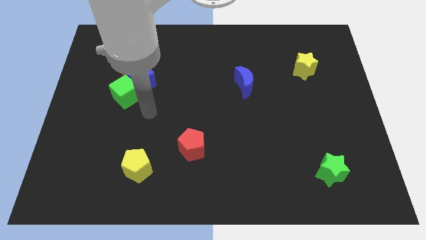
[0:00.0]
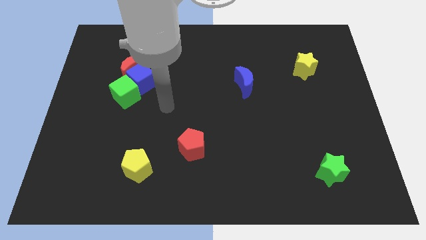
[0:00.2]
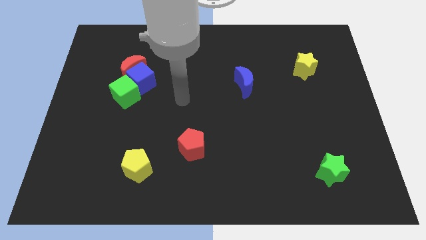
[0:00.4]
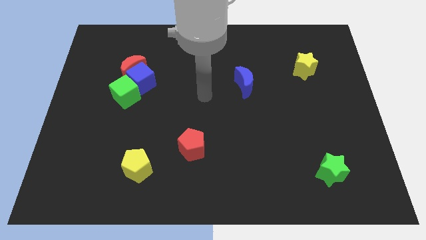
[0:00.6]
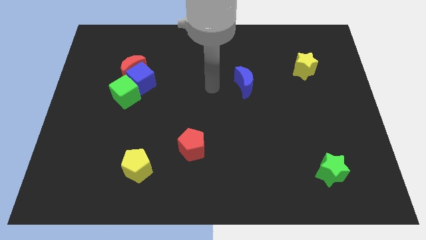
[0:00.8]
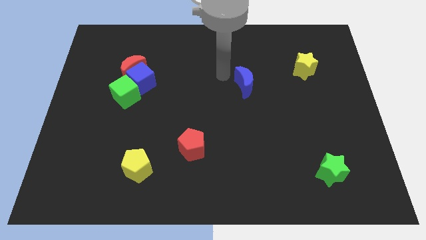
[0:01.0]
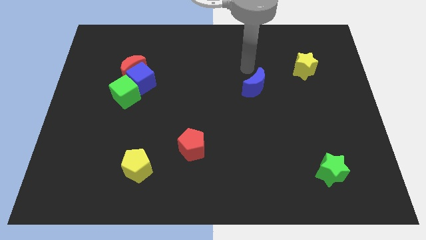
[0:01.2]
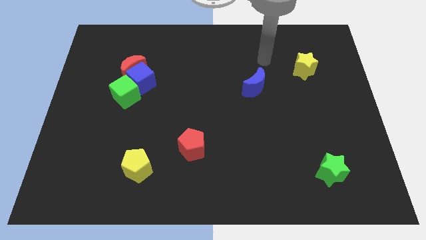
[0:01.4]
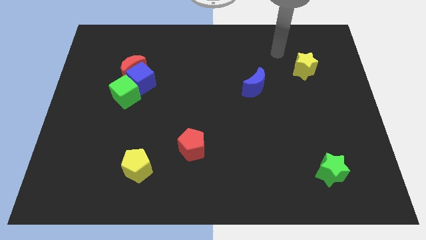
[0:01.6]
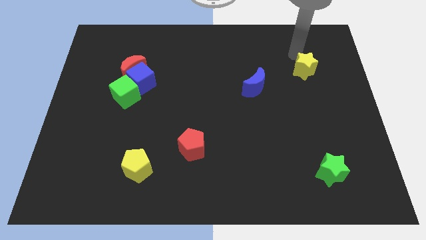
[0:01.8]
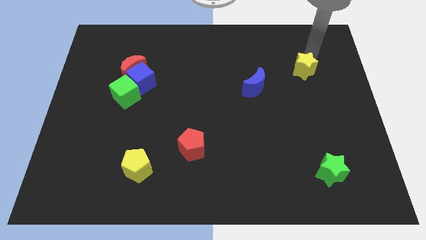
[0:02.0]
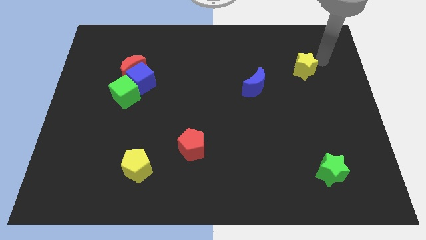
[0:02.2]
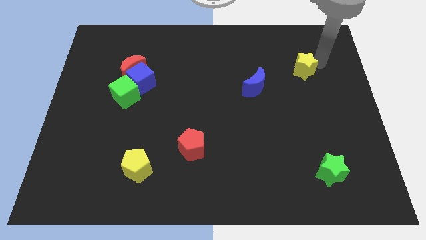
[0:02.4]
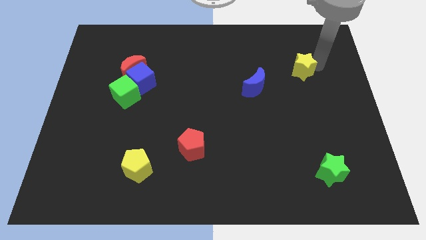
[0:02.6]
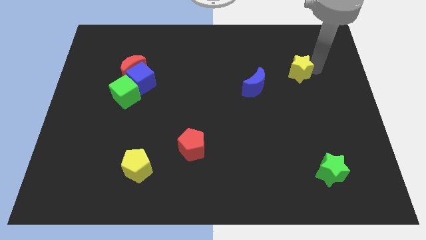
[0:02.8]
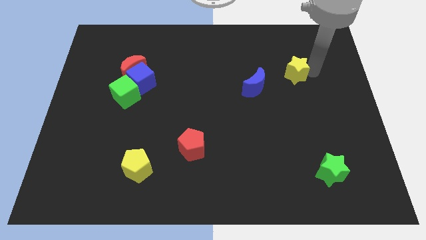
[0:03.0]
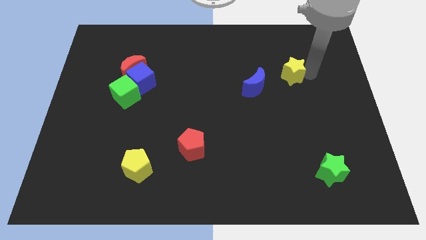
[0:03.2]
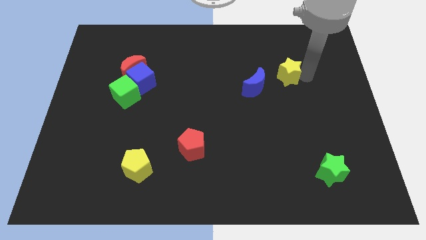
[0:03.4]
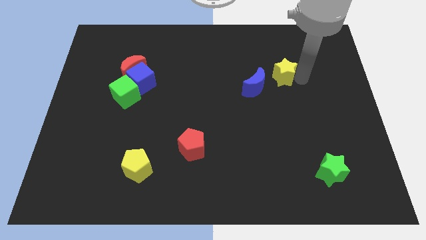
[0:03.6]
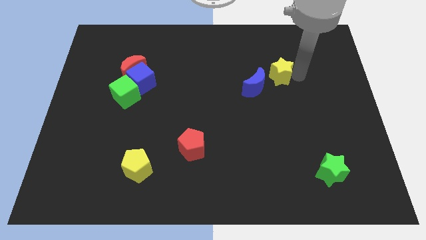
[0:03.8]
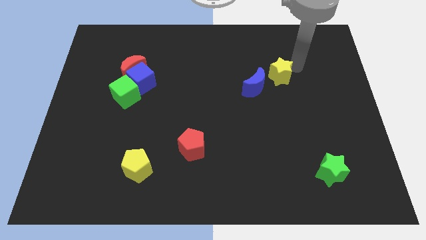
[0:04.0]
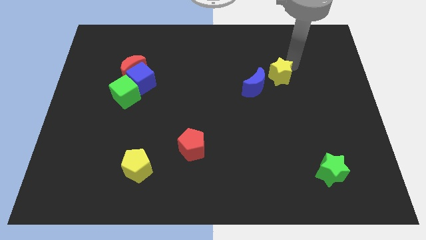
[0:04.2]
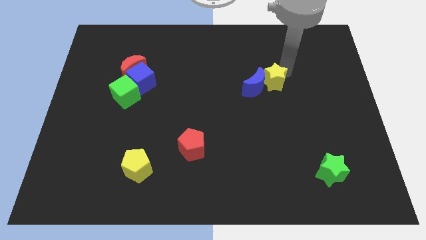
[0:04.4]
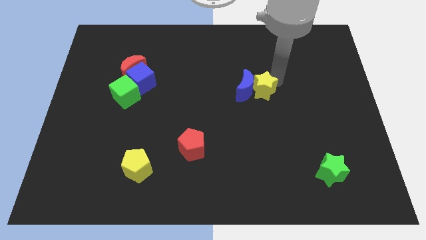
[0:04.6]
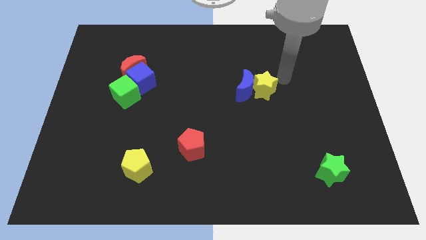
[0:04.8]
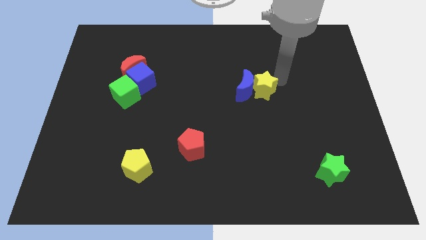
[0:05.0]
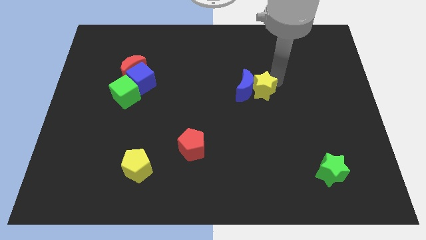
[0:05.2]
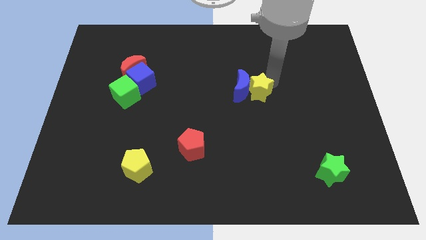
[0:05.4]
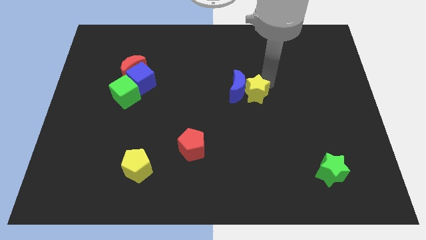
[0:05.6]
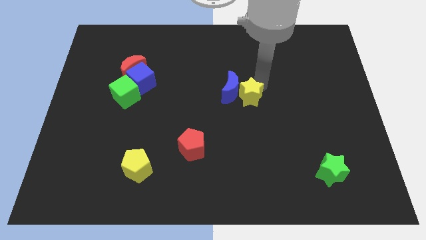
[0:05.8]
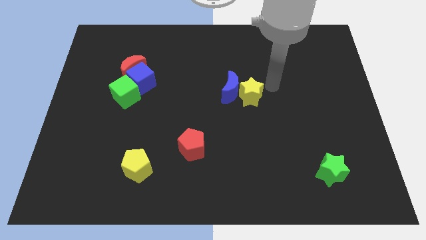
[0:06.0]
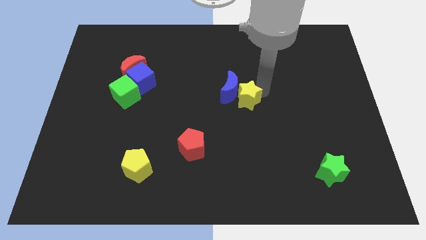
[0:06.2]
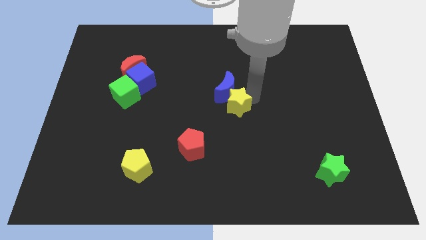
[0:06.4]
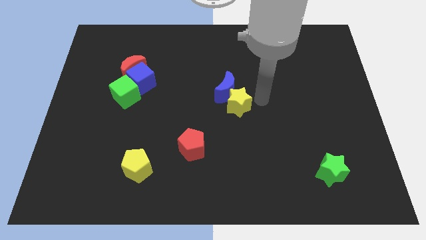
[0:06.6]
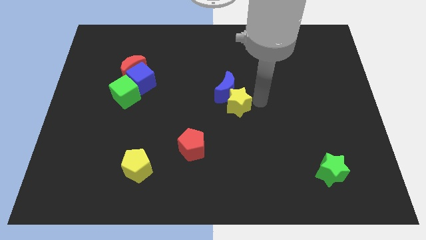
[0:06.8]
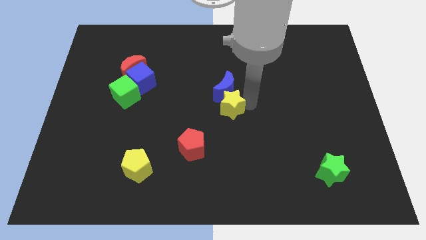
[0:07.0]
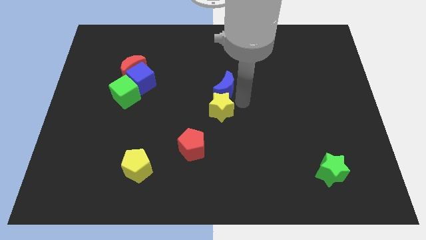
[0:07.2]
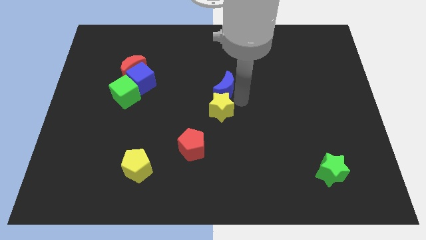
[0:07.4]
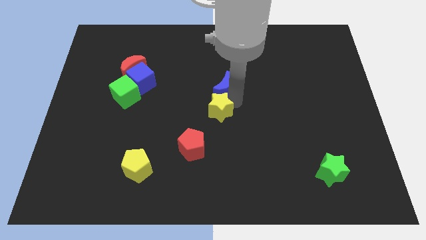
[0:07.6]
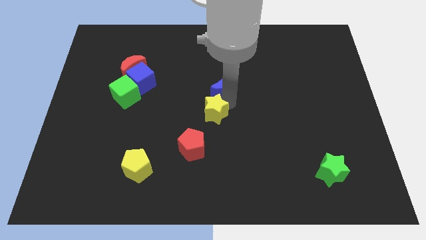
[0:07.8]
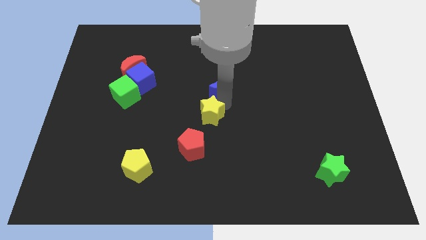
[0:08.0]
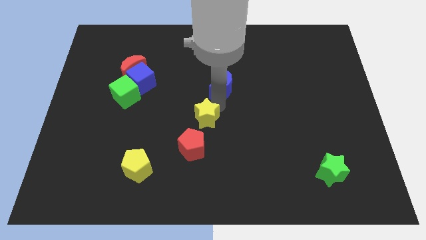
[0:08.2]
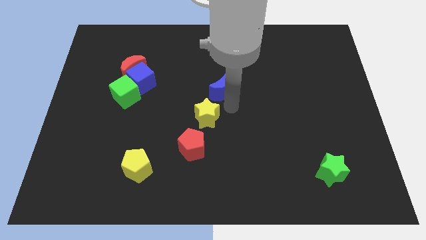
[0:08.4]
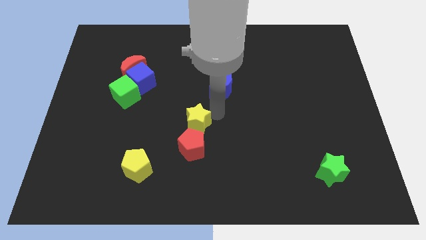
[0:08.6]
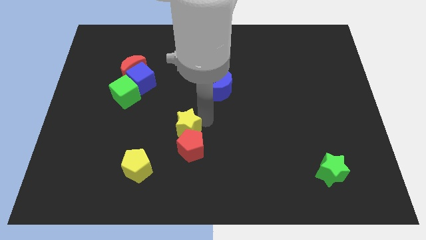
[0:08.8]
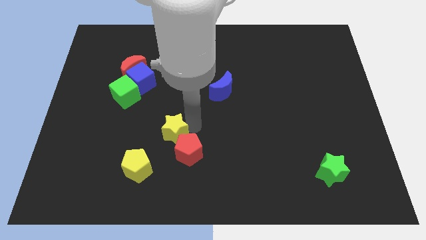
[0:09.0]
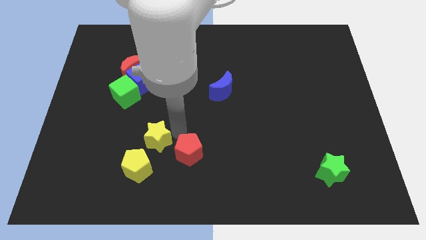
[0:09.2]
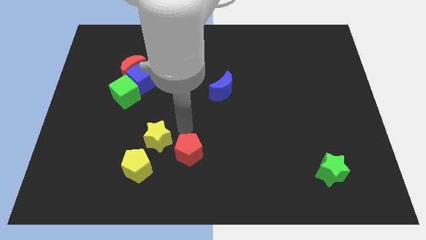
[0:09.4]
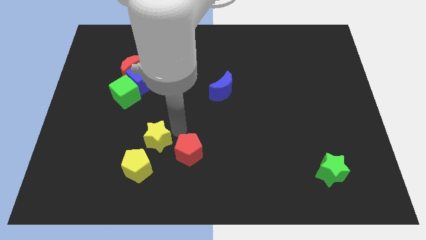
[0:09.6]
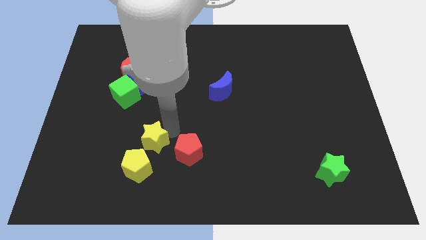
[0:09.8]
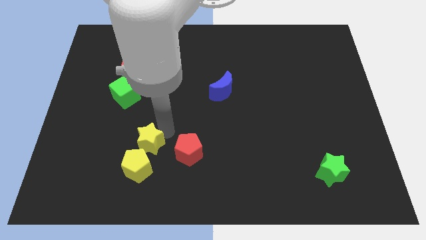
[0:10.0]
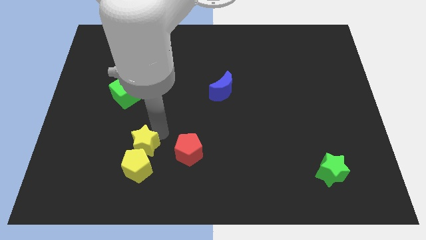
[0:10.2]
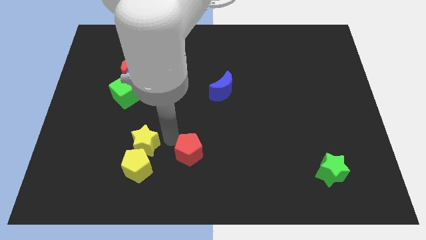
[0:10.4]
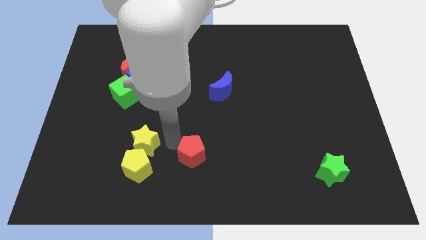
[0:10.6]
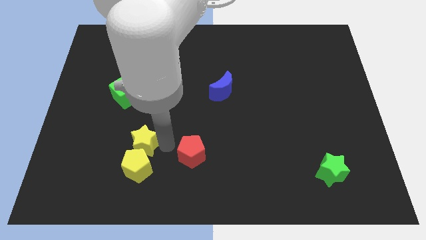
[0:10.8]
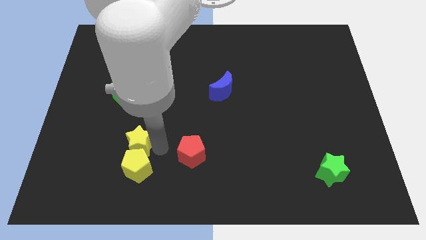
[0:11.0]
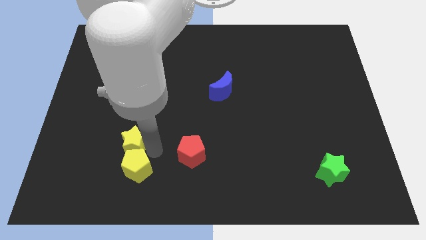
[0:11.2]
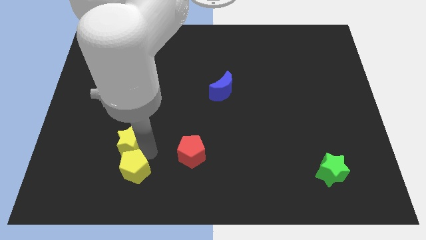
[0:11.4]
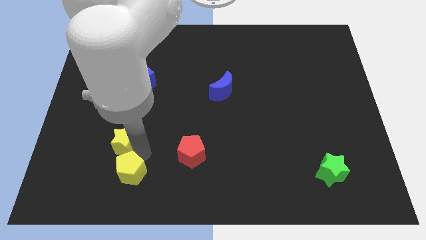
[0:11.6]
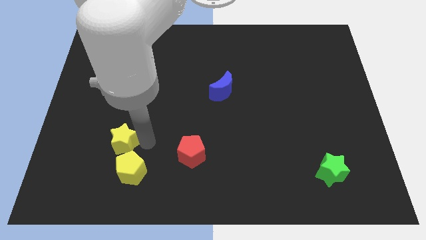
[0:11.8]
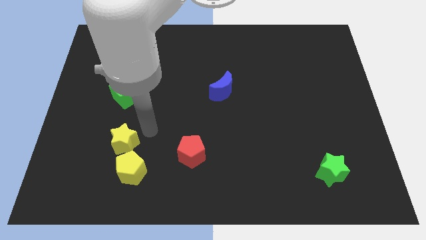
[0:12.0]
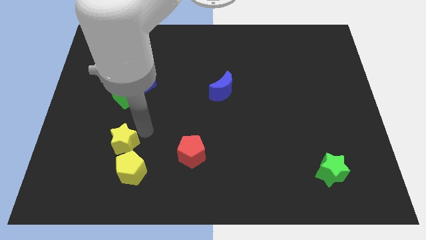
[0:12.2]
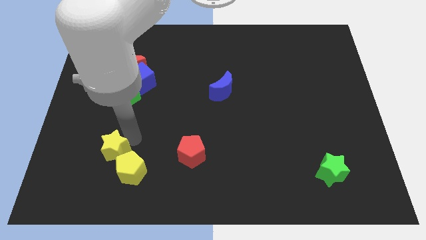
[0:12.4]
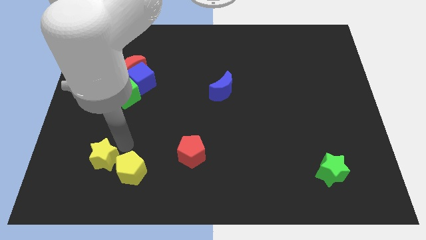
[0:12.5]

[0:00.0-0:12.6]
slide the yellow star left of the yellow pentagon

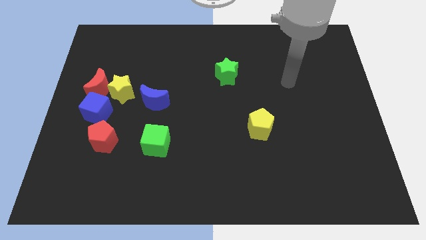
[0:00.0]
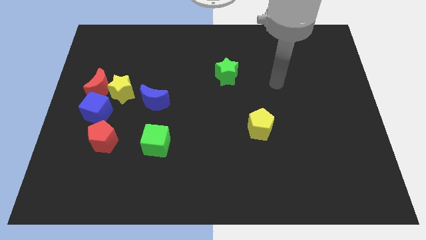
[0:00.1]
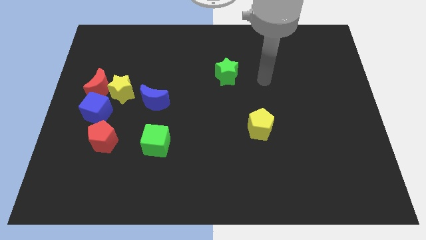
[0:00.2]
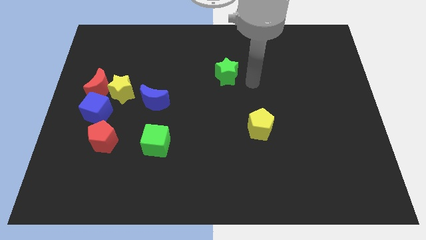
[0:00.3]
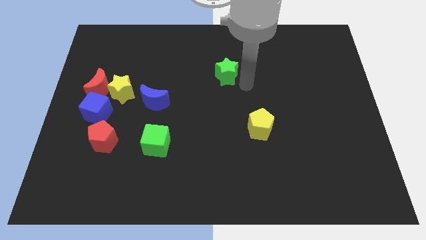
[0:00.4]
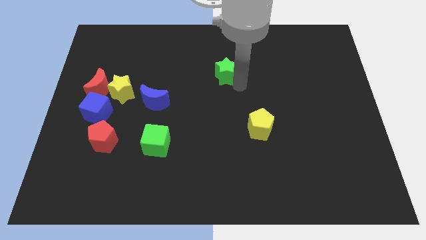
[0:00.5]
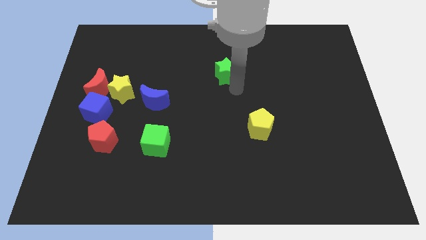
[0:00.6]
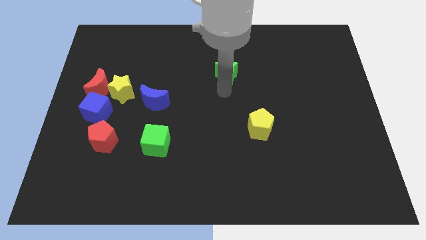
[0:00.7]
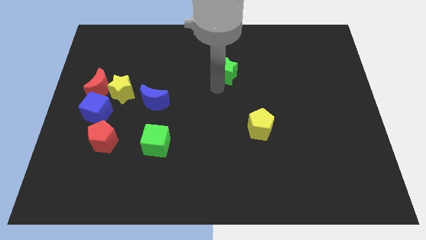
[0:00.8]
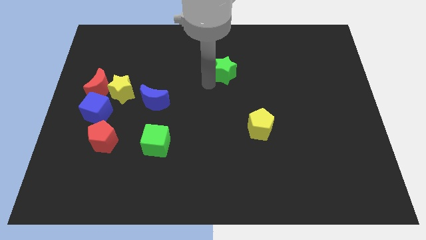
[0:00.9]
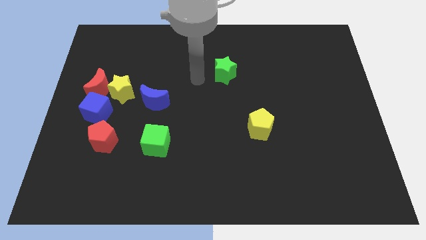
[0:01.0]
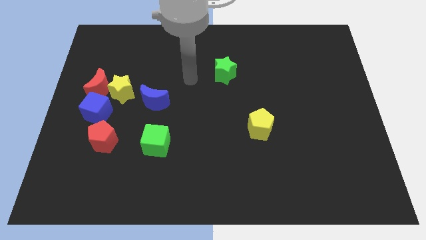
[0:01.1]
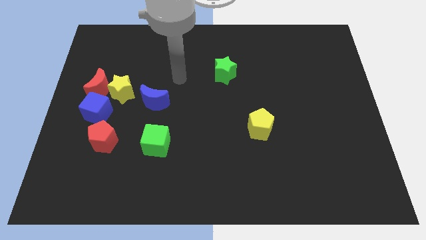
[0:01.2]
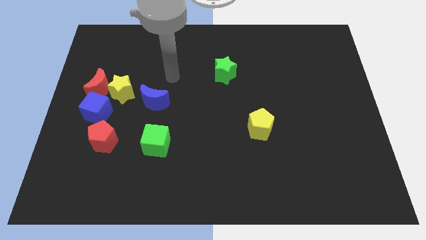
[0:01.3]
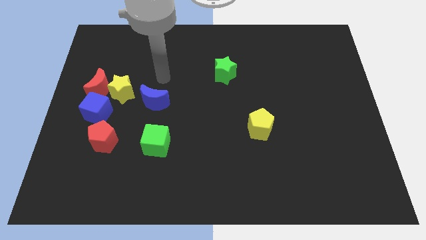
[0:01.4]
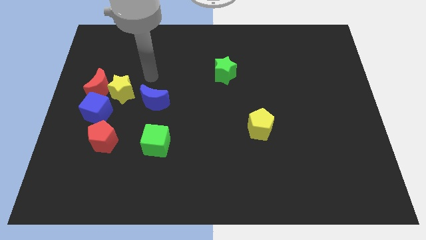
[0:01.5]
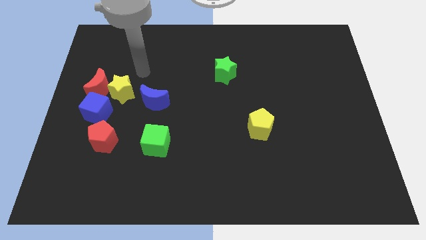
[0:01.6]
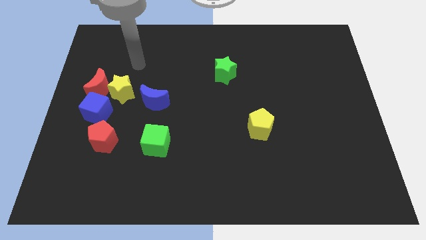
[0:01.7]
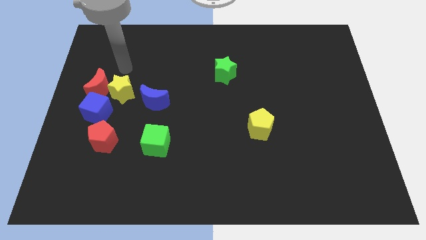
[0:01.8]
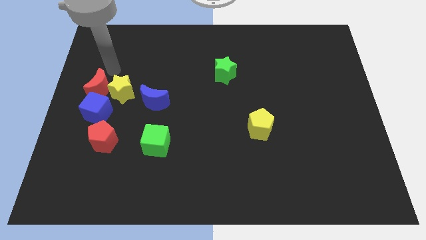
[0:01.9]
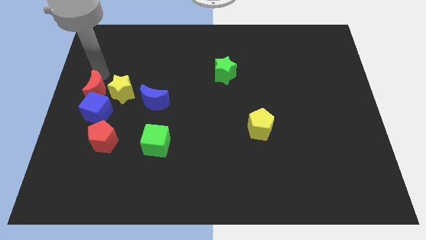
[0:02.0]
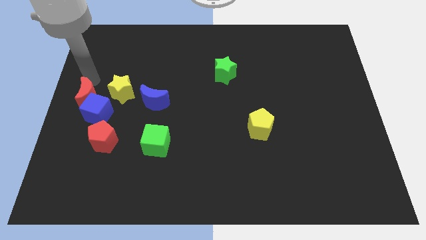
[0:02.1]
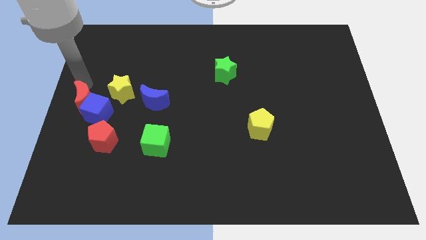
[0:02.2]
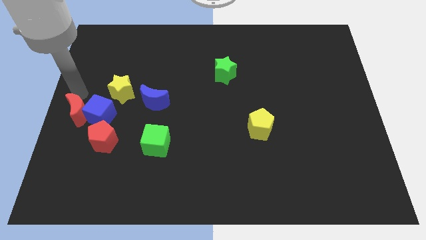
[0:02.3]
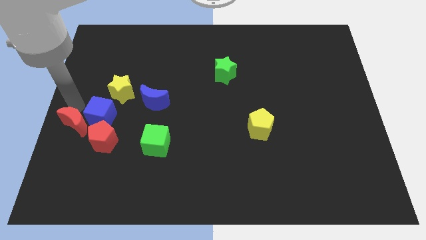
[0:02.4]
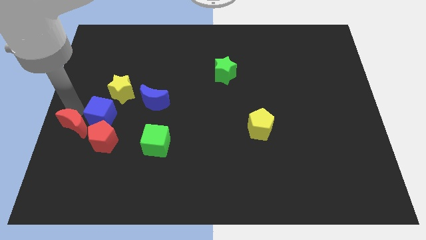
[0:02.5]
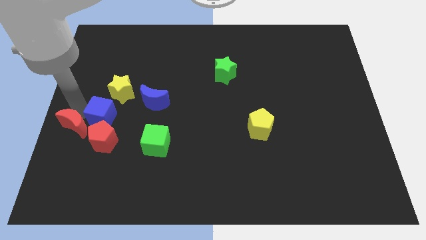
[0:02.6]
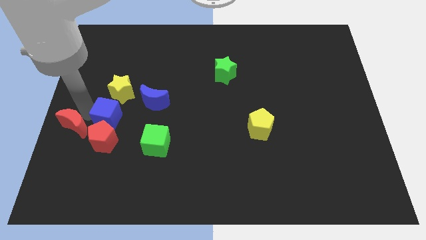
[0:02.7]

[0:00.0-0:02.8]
move the blue cube to the top right side of the red pentagon
